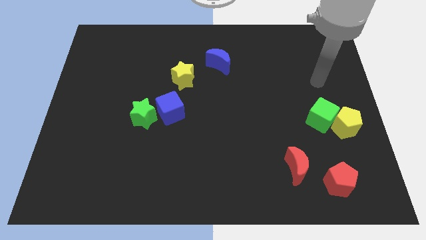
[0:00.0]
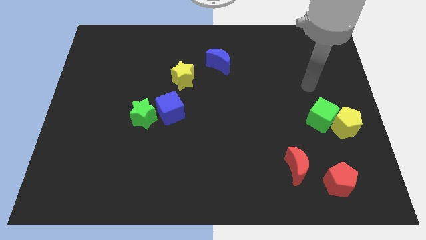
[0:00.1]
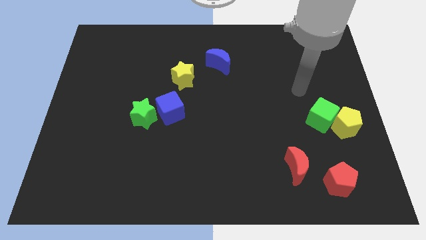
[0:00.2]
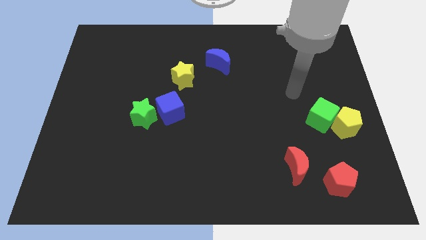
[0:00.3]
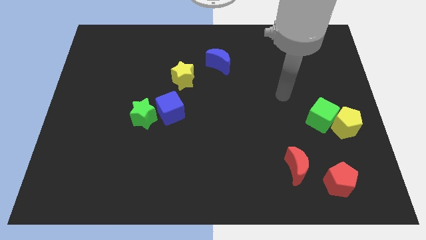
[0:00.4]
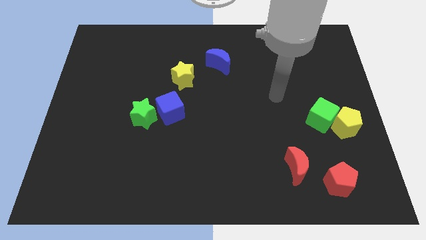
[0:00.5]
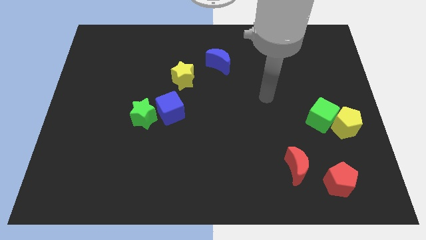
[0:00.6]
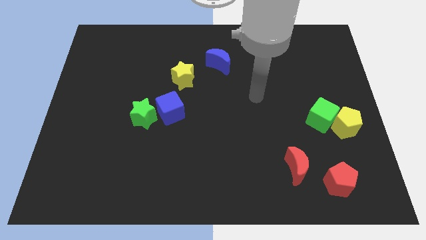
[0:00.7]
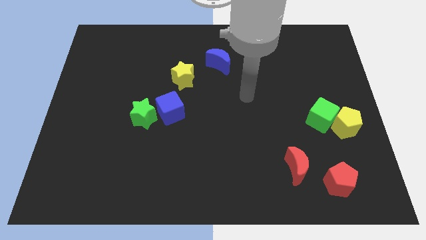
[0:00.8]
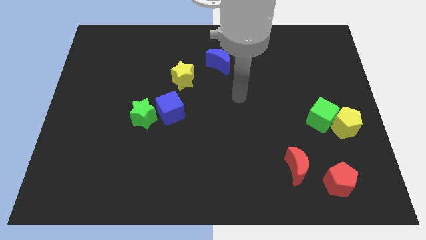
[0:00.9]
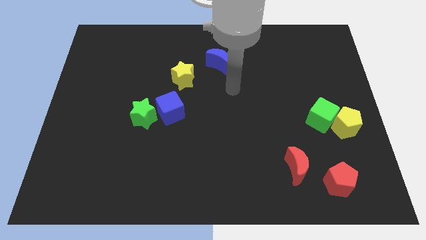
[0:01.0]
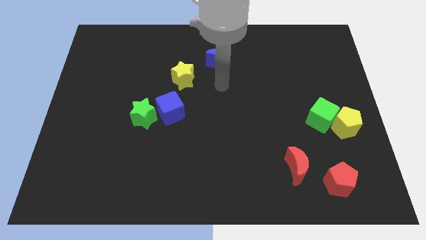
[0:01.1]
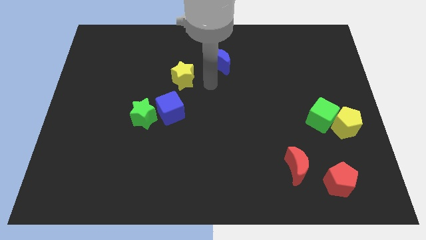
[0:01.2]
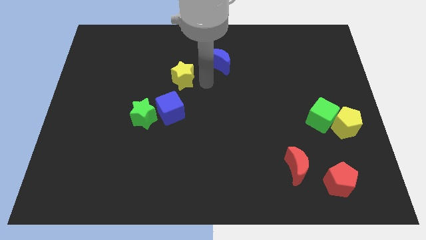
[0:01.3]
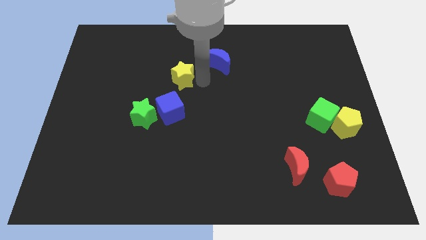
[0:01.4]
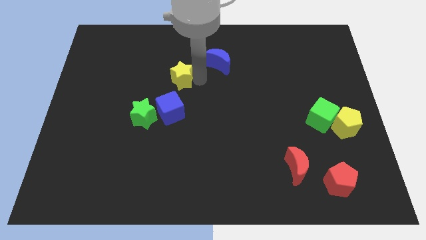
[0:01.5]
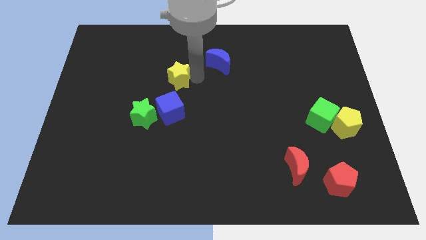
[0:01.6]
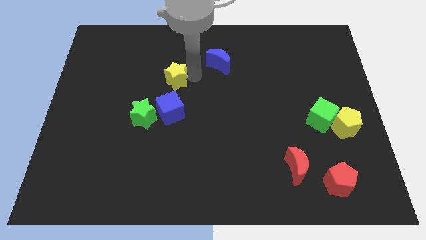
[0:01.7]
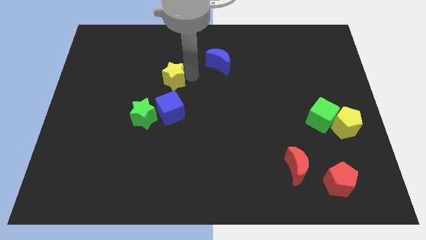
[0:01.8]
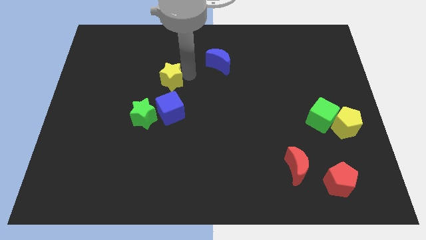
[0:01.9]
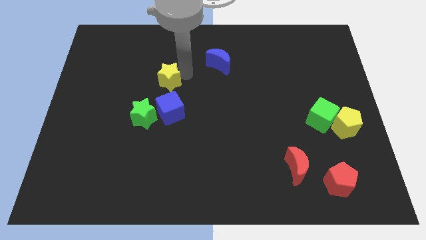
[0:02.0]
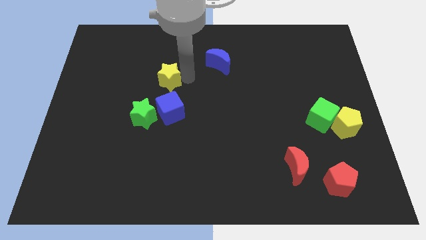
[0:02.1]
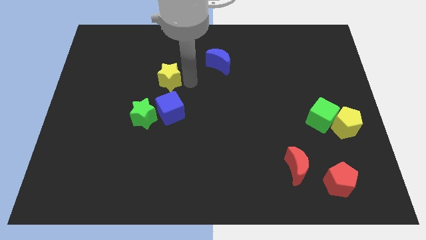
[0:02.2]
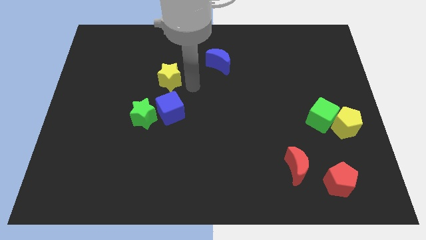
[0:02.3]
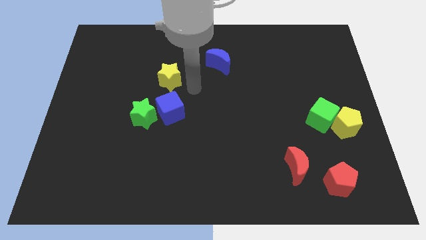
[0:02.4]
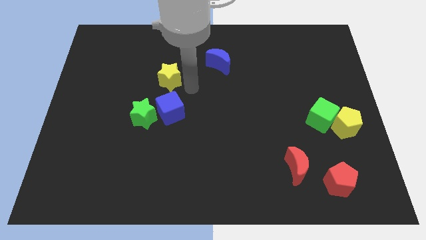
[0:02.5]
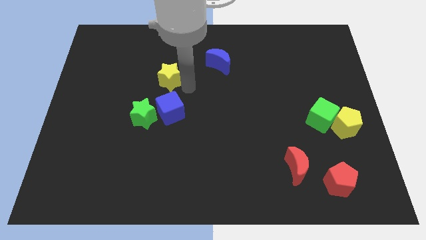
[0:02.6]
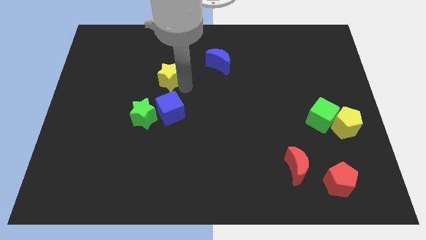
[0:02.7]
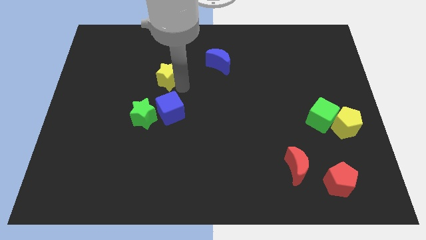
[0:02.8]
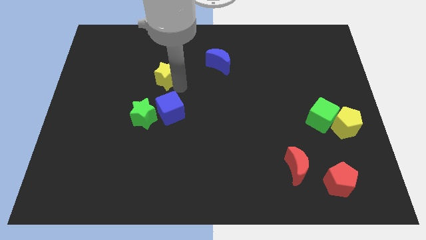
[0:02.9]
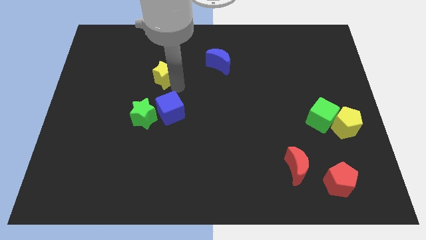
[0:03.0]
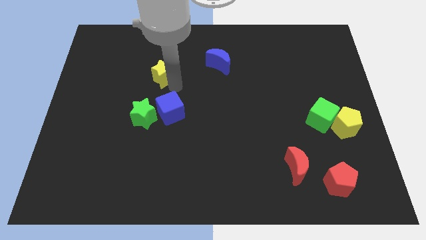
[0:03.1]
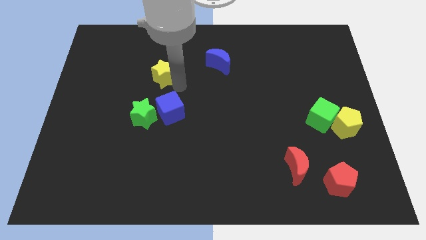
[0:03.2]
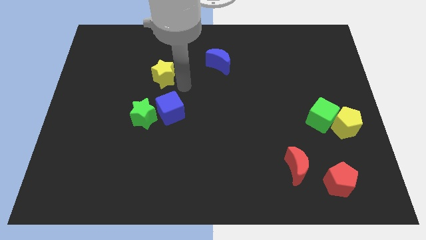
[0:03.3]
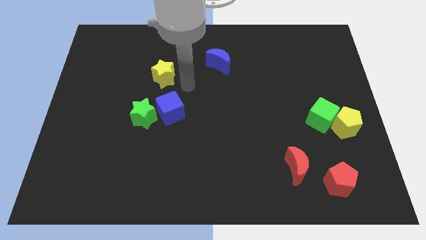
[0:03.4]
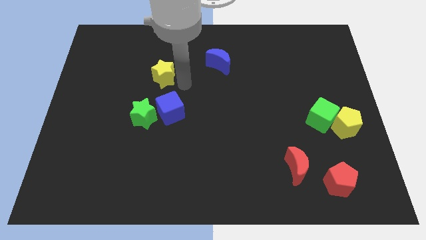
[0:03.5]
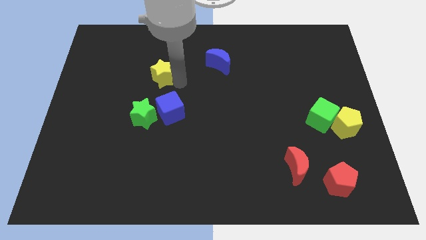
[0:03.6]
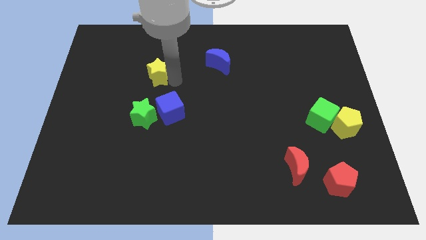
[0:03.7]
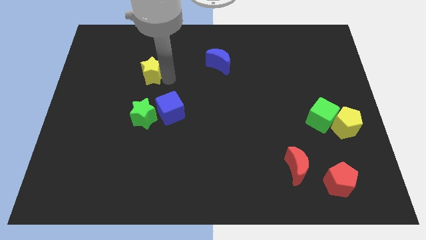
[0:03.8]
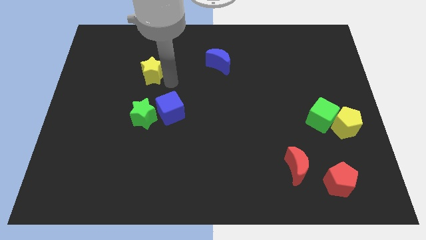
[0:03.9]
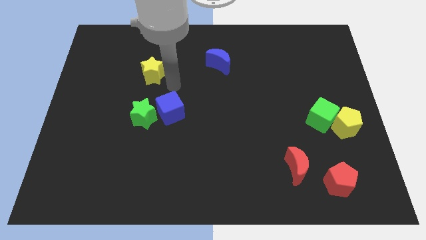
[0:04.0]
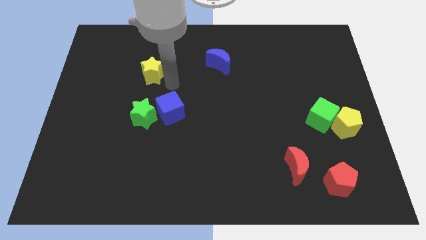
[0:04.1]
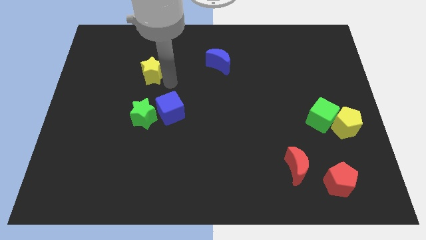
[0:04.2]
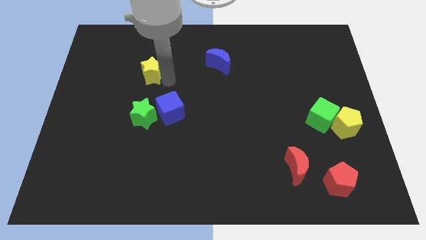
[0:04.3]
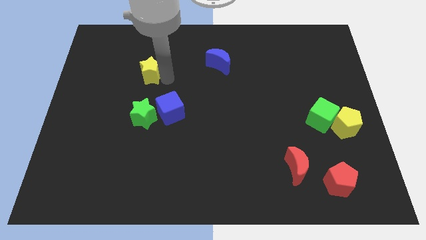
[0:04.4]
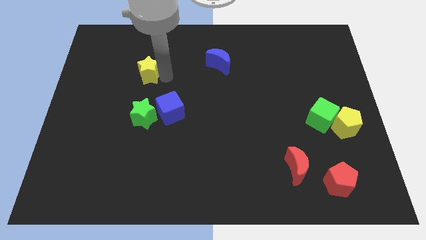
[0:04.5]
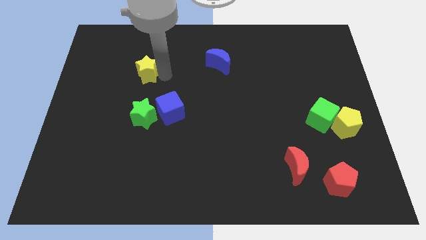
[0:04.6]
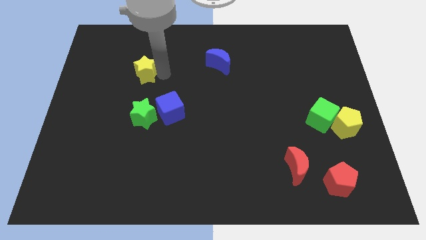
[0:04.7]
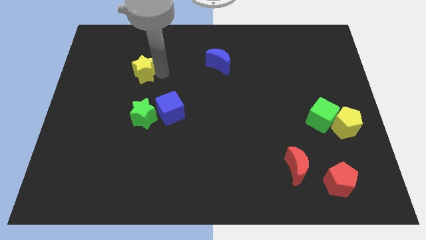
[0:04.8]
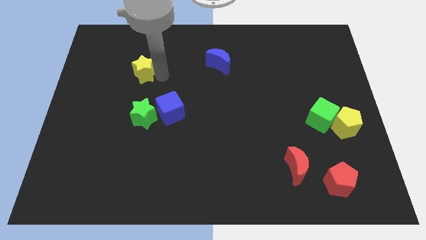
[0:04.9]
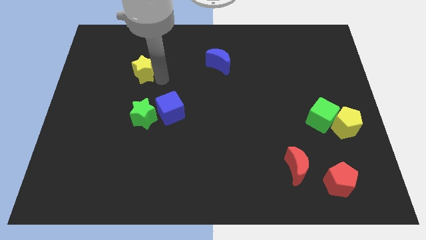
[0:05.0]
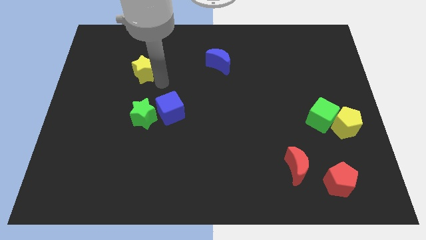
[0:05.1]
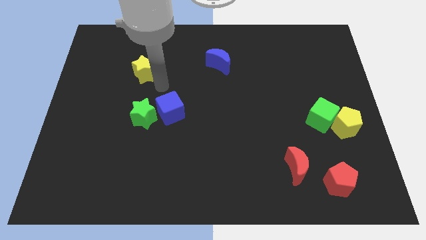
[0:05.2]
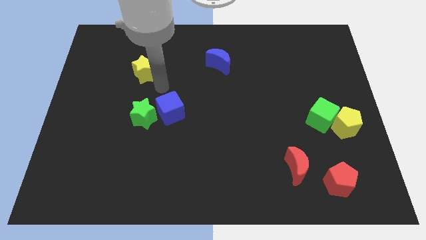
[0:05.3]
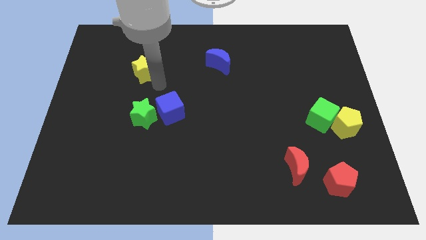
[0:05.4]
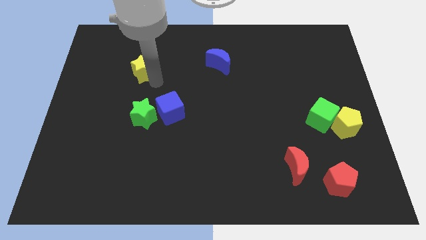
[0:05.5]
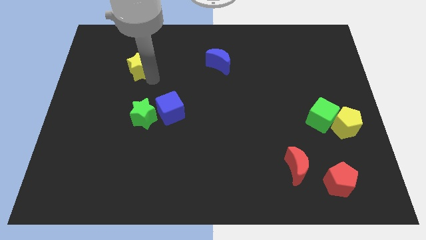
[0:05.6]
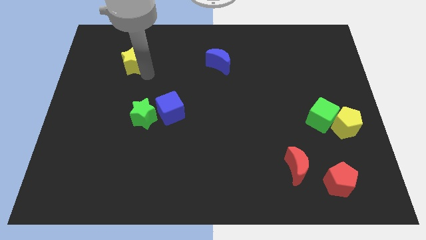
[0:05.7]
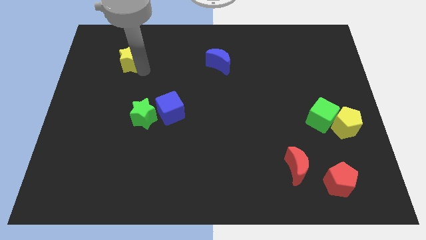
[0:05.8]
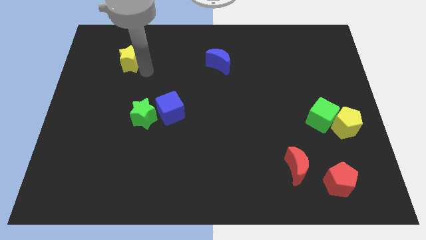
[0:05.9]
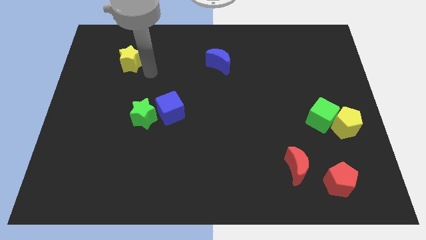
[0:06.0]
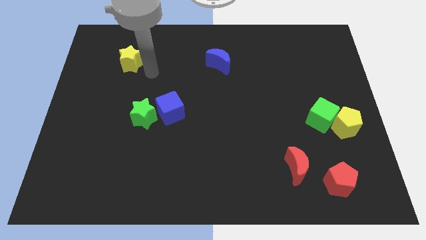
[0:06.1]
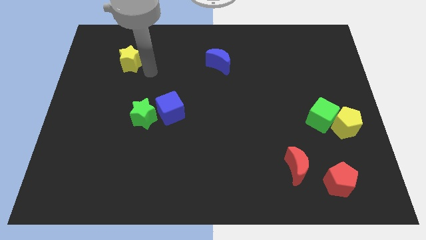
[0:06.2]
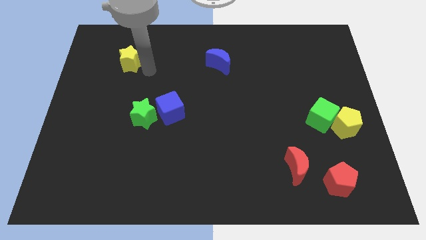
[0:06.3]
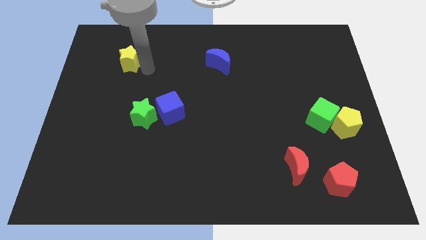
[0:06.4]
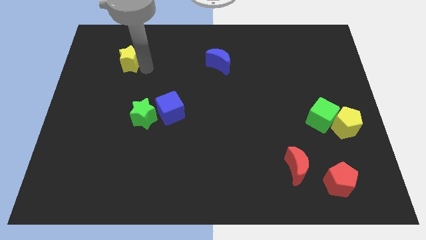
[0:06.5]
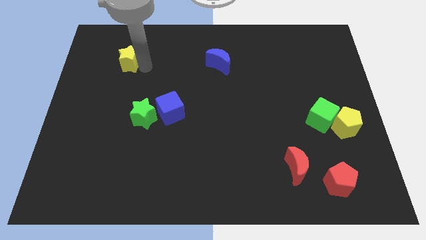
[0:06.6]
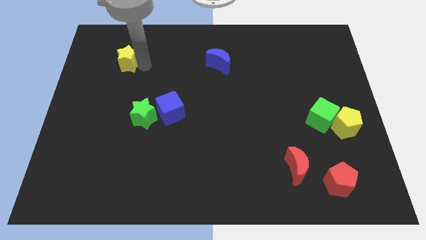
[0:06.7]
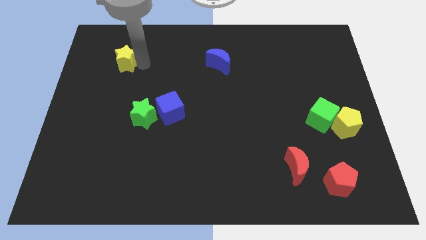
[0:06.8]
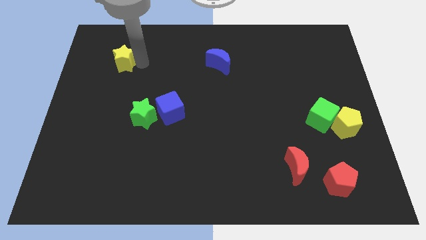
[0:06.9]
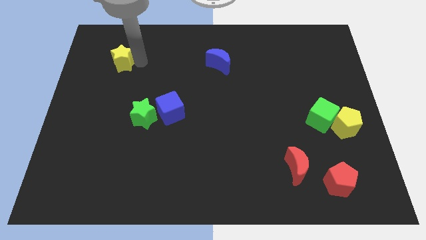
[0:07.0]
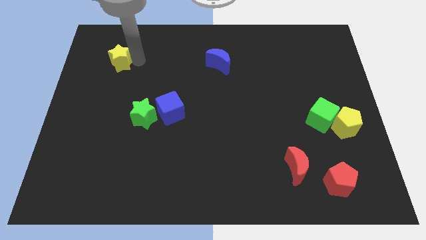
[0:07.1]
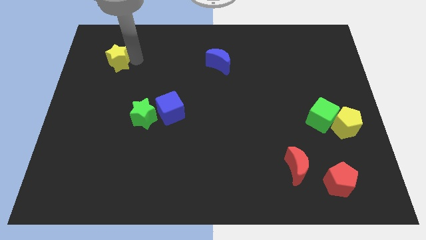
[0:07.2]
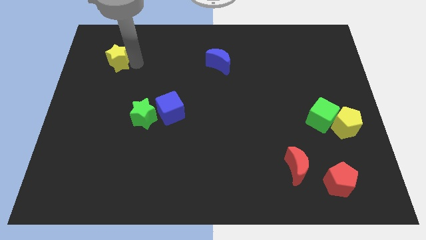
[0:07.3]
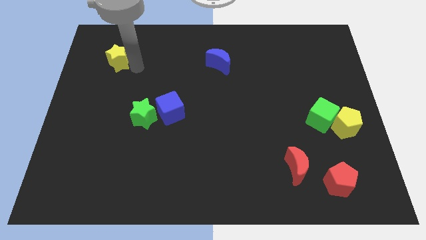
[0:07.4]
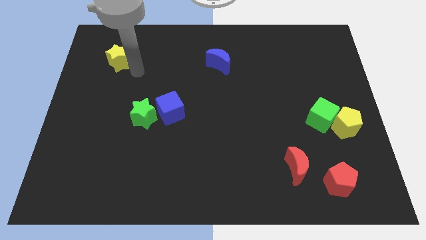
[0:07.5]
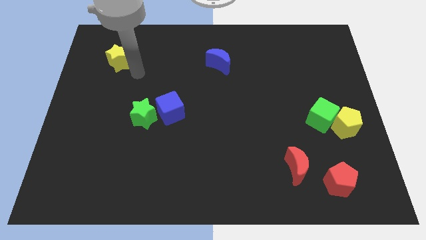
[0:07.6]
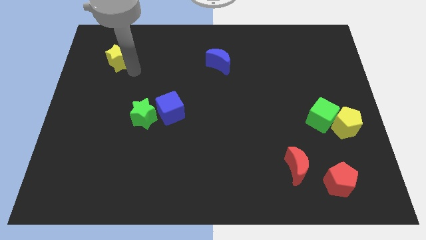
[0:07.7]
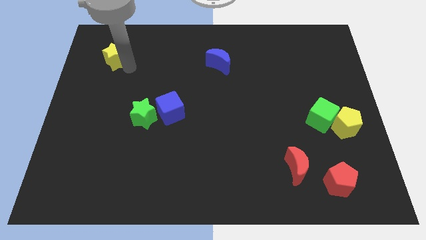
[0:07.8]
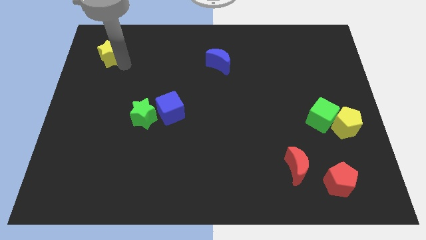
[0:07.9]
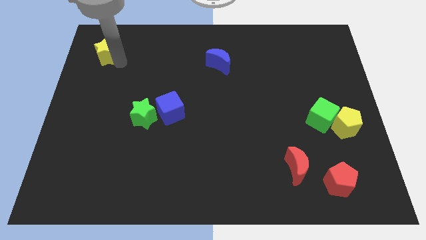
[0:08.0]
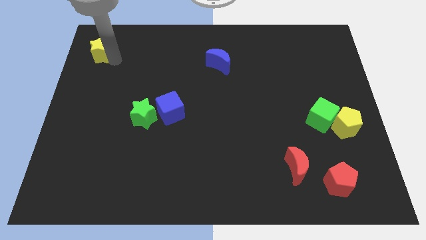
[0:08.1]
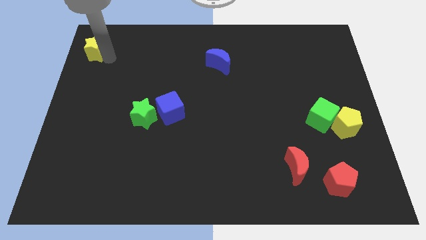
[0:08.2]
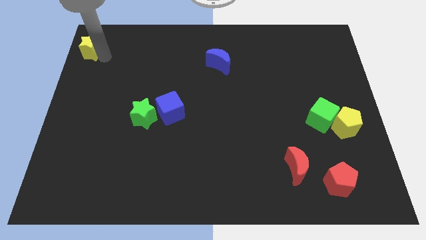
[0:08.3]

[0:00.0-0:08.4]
put the yellow star to the upper left corner
